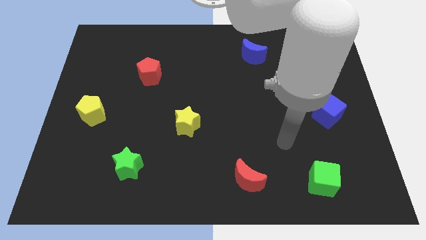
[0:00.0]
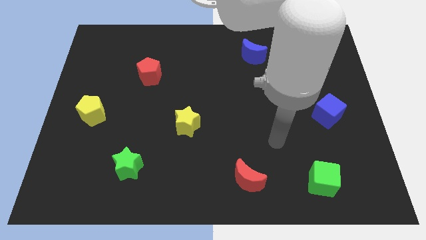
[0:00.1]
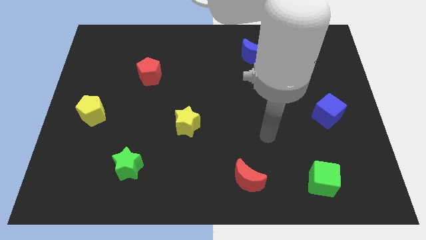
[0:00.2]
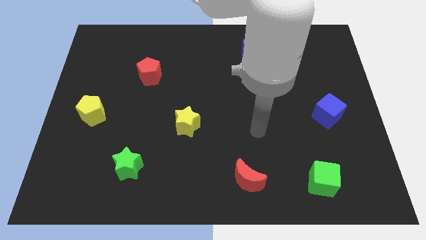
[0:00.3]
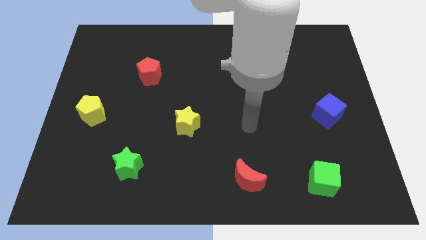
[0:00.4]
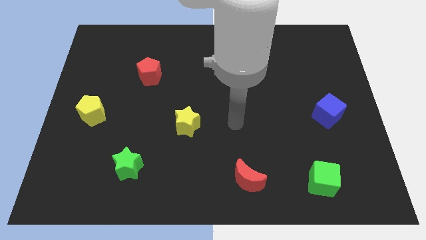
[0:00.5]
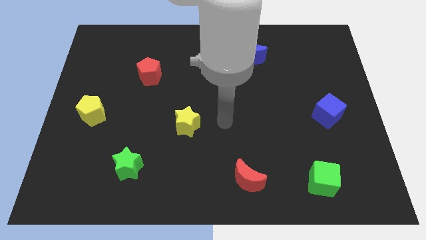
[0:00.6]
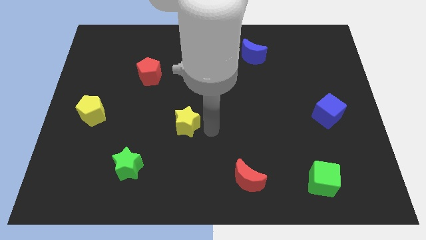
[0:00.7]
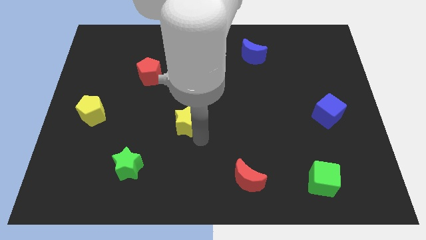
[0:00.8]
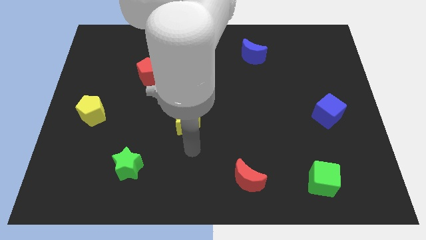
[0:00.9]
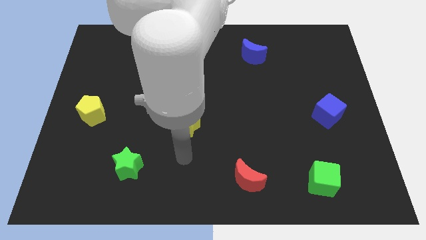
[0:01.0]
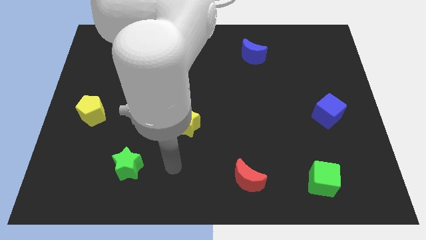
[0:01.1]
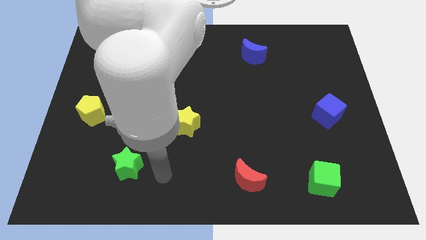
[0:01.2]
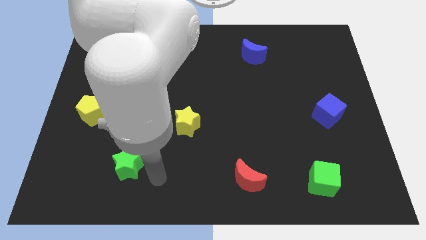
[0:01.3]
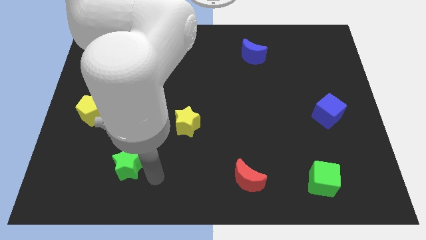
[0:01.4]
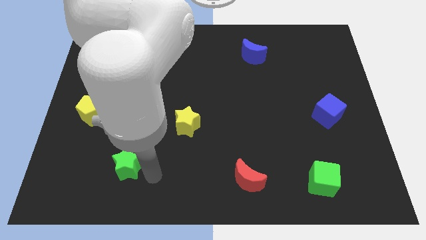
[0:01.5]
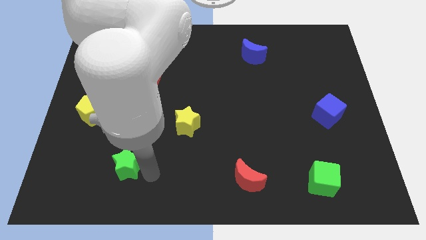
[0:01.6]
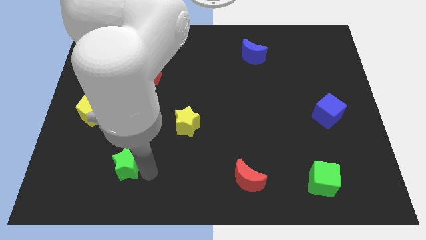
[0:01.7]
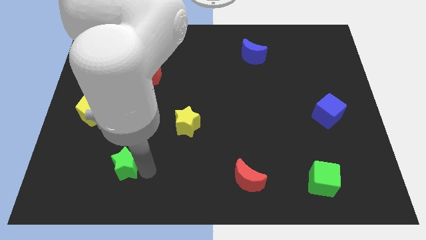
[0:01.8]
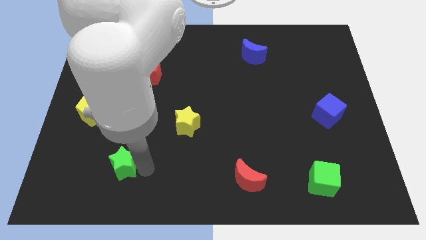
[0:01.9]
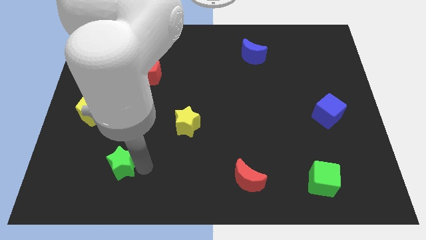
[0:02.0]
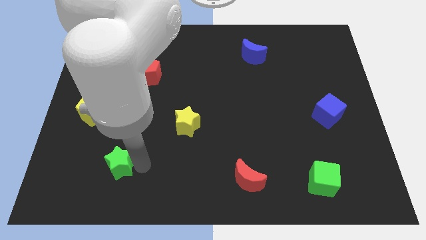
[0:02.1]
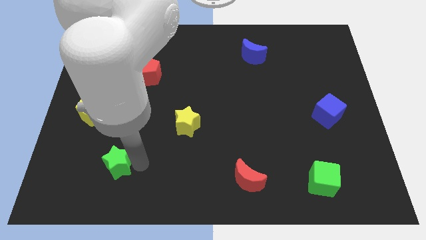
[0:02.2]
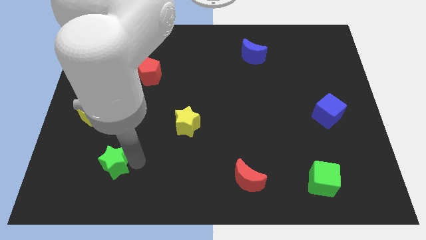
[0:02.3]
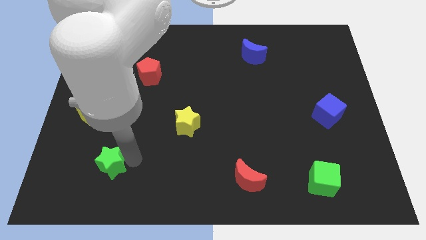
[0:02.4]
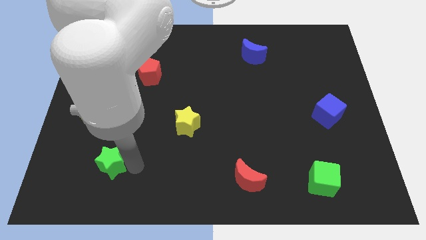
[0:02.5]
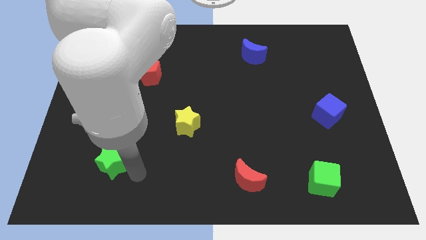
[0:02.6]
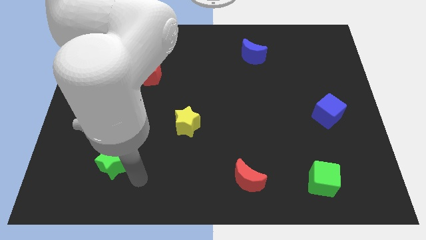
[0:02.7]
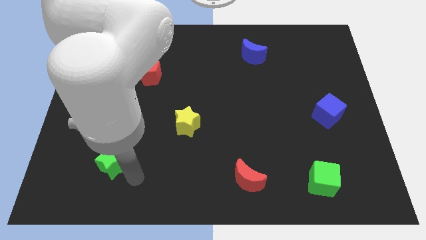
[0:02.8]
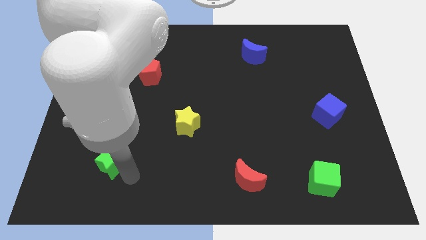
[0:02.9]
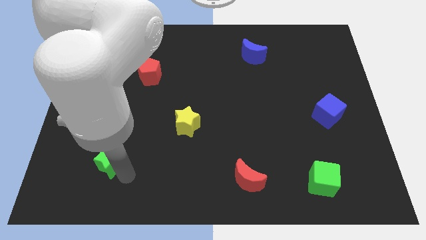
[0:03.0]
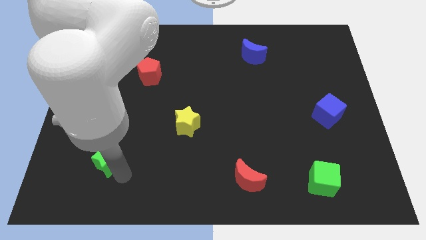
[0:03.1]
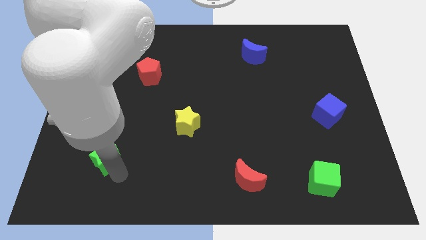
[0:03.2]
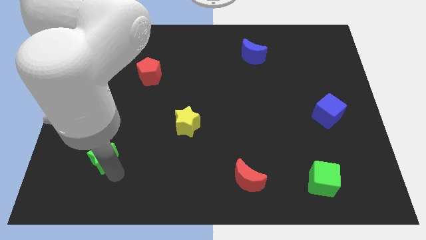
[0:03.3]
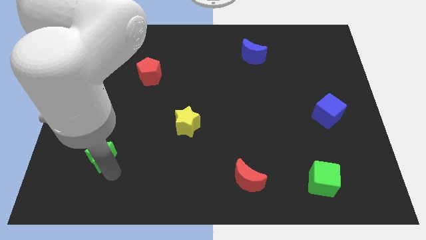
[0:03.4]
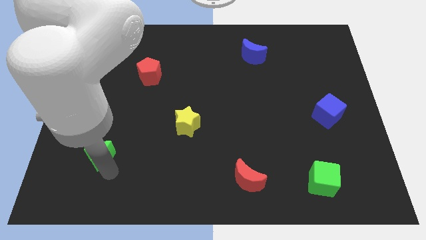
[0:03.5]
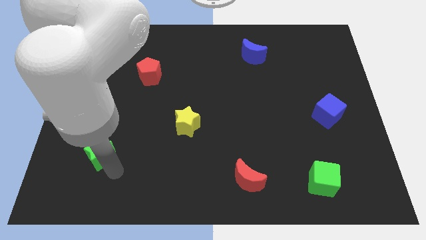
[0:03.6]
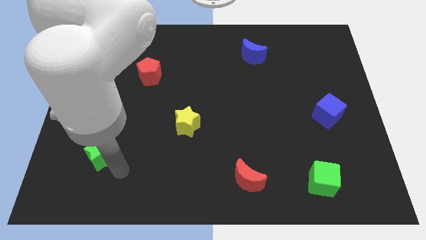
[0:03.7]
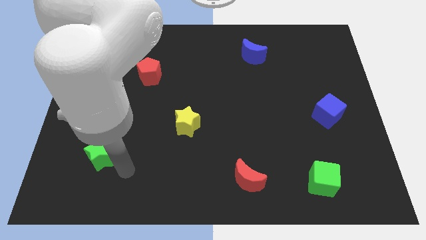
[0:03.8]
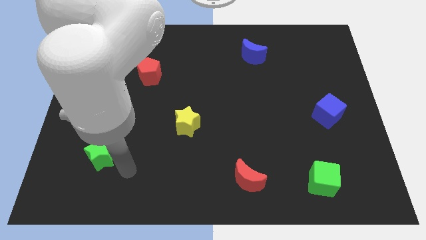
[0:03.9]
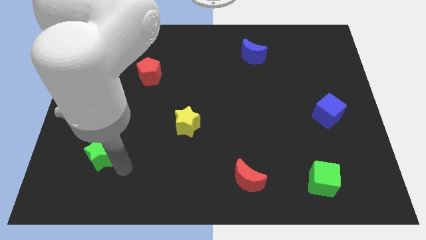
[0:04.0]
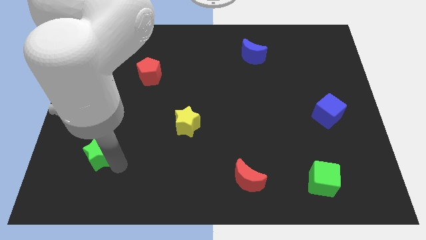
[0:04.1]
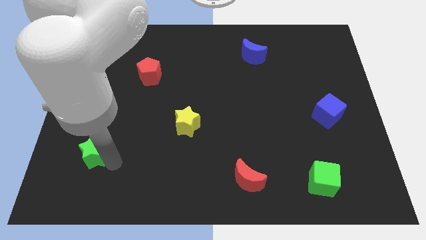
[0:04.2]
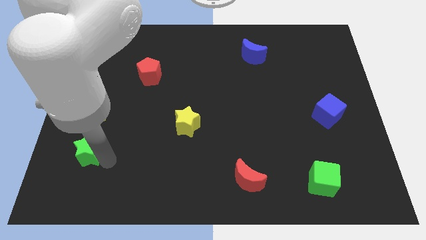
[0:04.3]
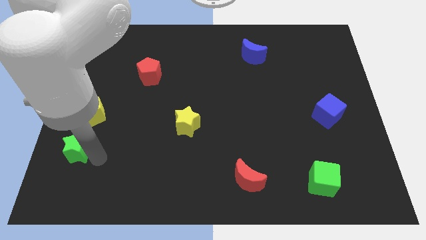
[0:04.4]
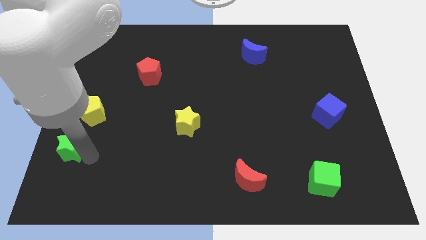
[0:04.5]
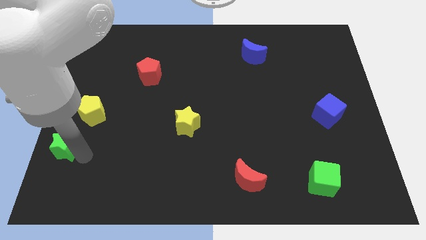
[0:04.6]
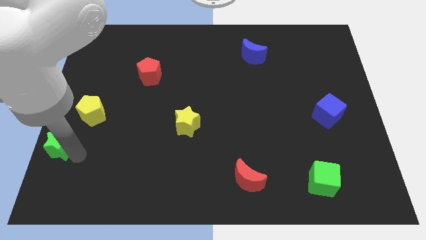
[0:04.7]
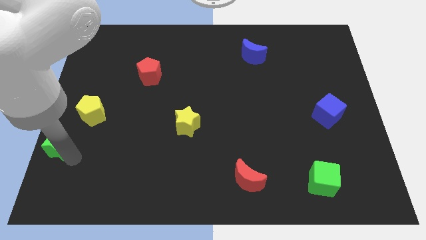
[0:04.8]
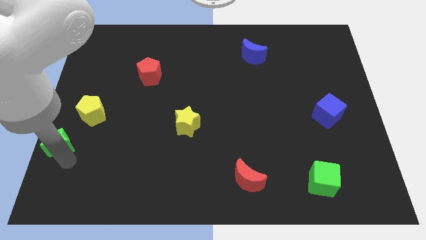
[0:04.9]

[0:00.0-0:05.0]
push the green star to the center left

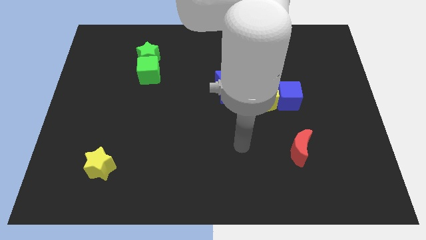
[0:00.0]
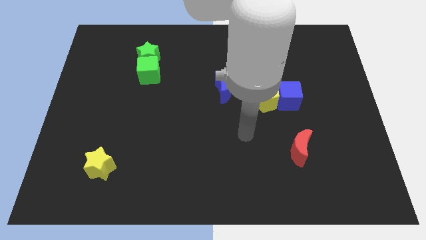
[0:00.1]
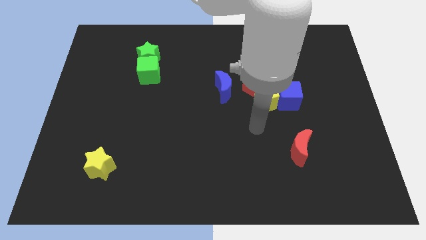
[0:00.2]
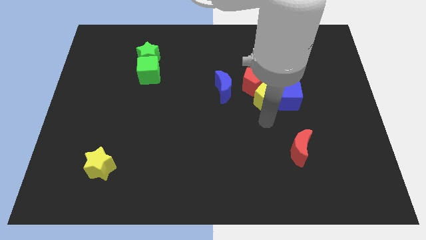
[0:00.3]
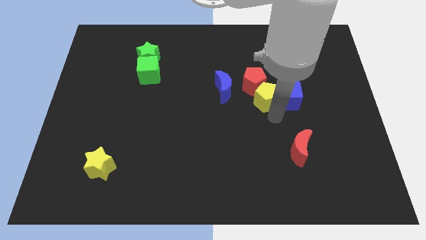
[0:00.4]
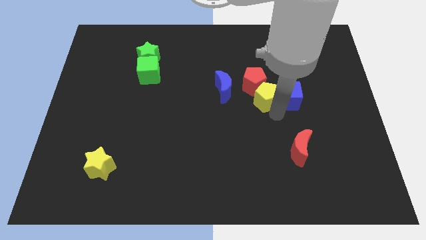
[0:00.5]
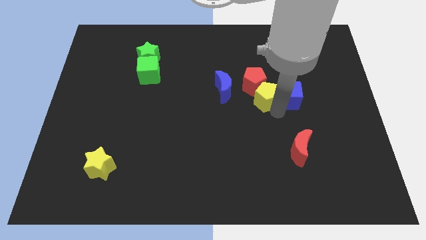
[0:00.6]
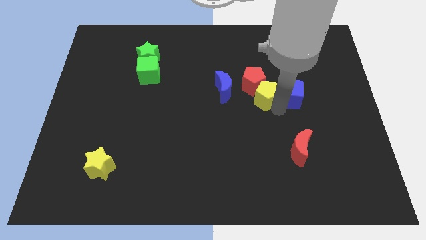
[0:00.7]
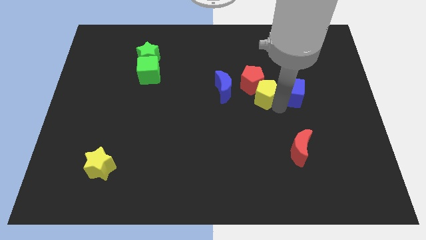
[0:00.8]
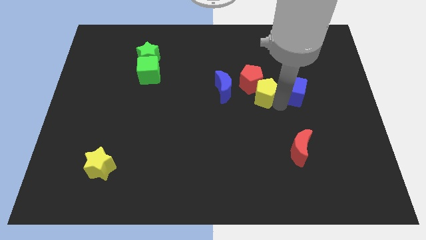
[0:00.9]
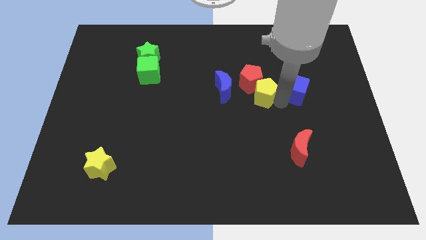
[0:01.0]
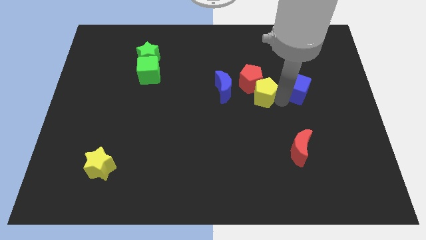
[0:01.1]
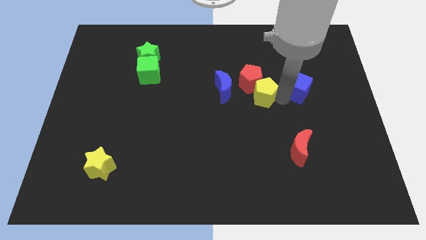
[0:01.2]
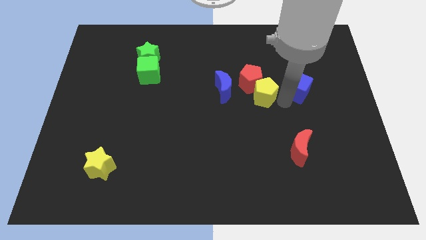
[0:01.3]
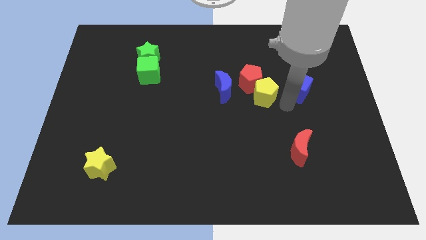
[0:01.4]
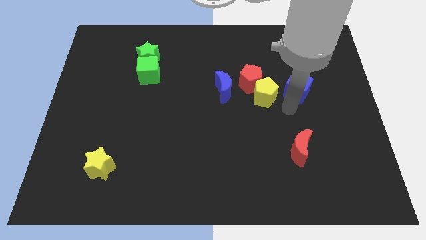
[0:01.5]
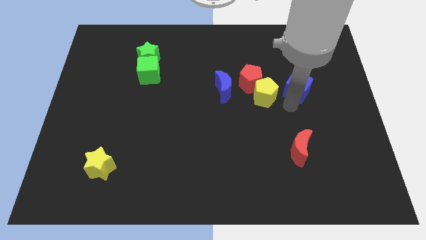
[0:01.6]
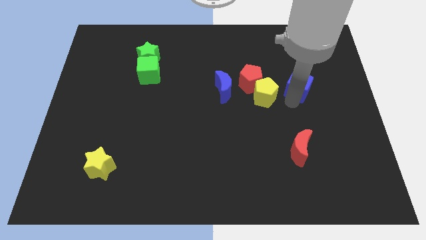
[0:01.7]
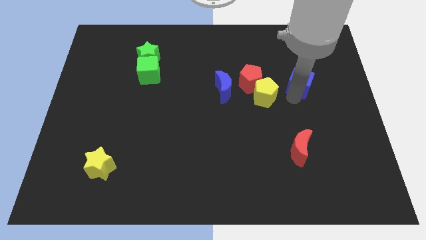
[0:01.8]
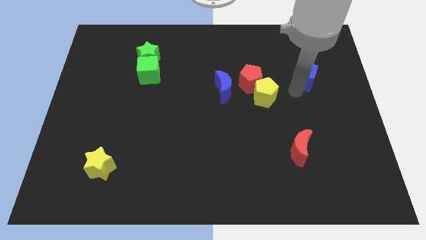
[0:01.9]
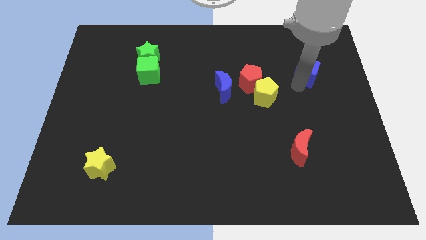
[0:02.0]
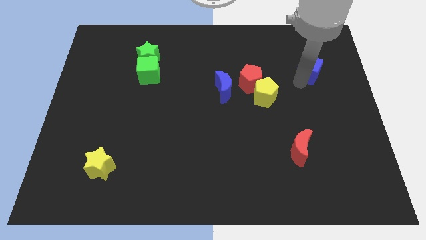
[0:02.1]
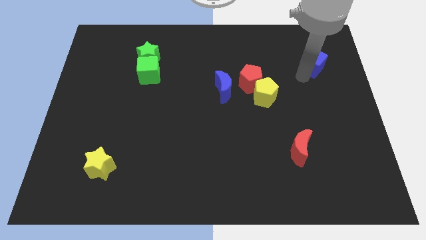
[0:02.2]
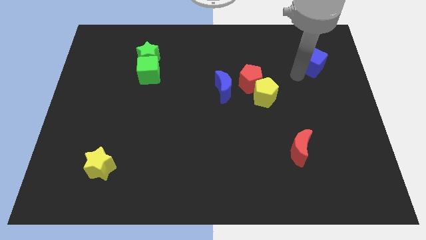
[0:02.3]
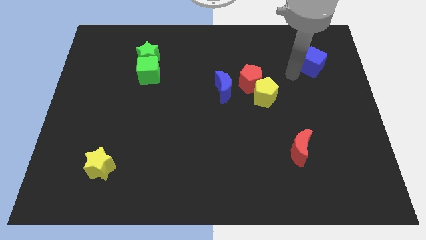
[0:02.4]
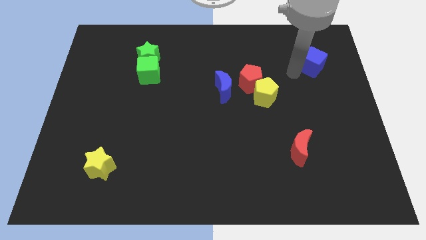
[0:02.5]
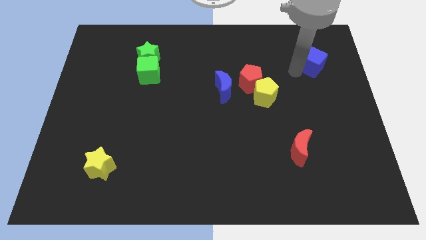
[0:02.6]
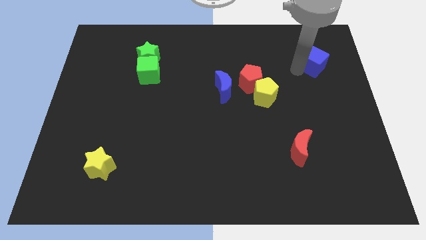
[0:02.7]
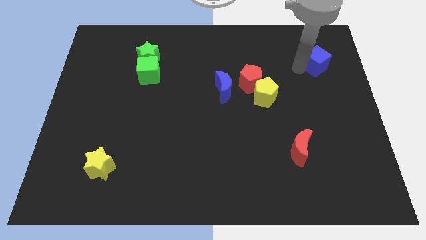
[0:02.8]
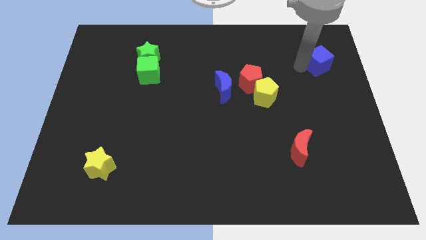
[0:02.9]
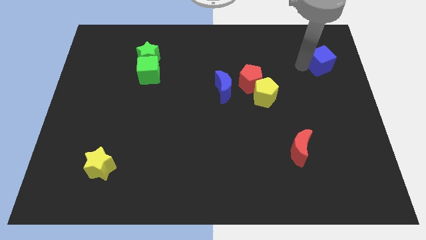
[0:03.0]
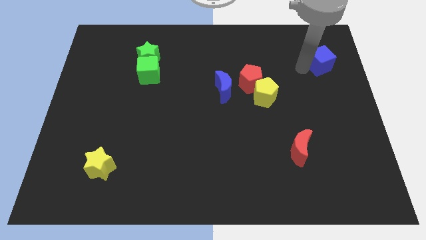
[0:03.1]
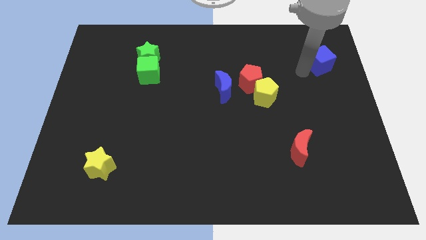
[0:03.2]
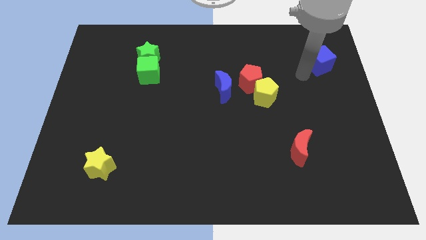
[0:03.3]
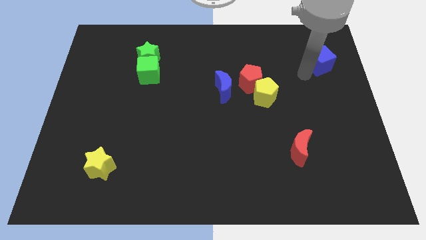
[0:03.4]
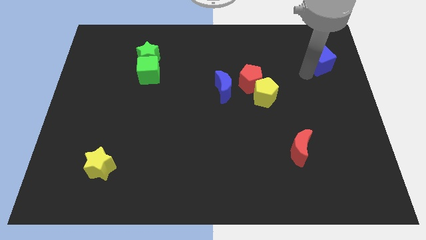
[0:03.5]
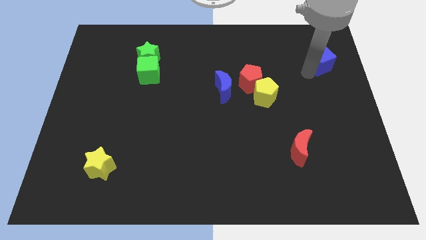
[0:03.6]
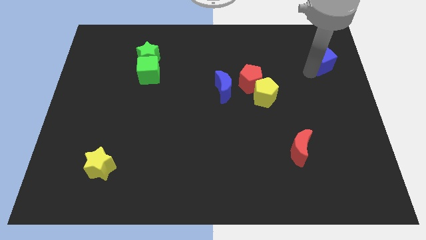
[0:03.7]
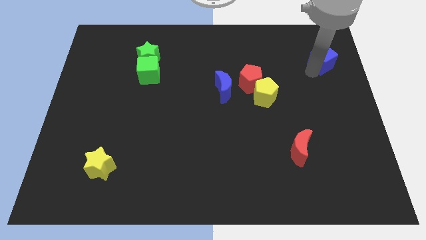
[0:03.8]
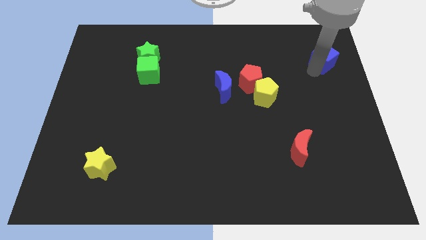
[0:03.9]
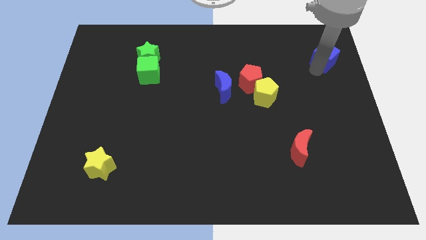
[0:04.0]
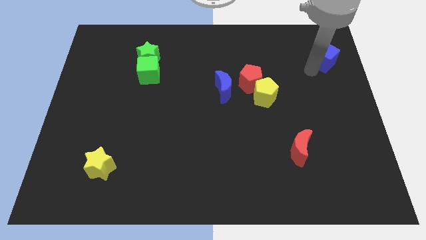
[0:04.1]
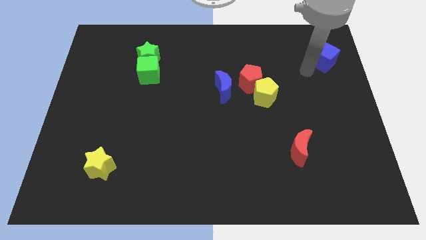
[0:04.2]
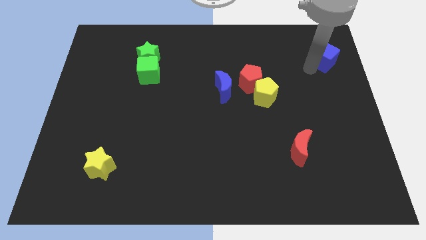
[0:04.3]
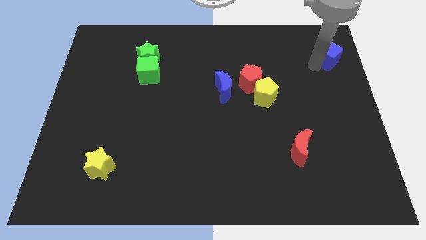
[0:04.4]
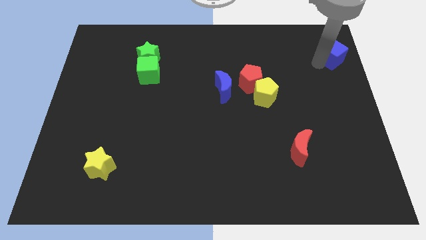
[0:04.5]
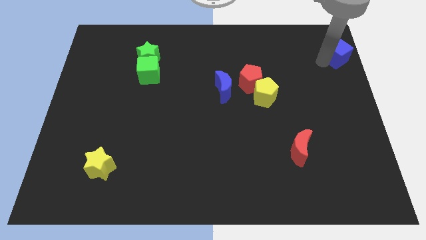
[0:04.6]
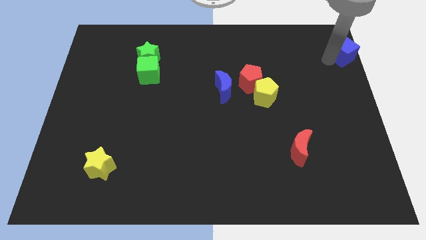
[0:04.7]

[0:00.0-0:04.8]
put the blue cube to the top right
